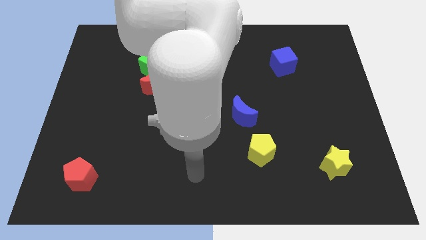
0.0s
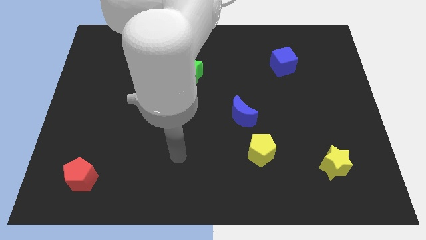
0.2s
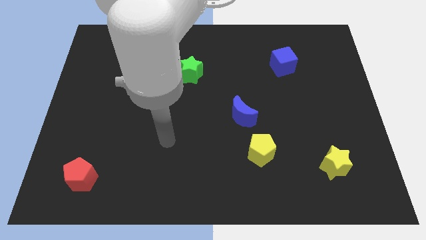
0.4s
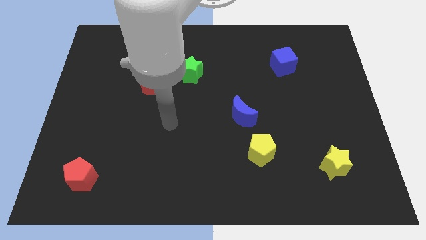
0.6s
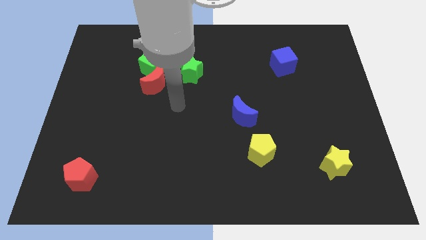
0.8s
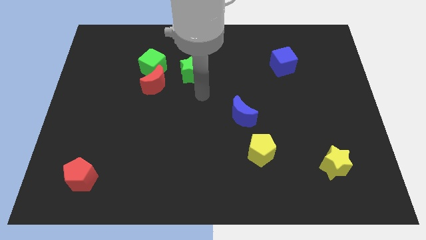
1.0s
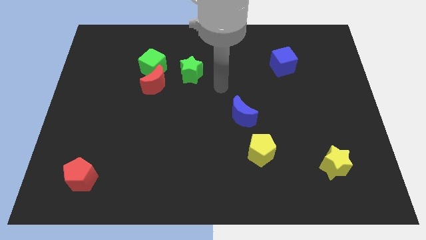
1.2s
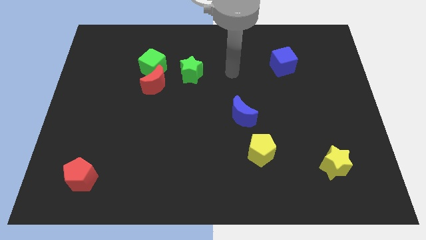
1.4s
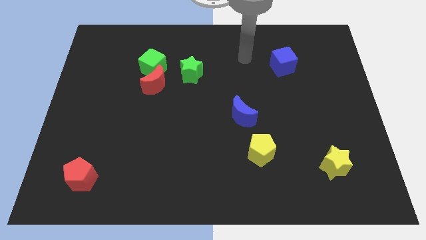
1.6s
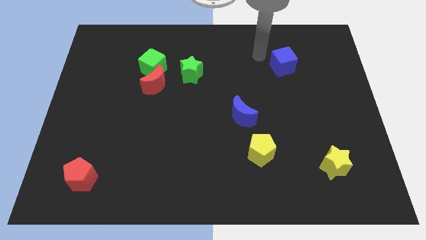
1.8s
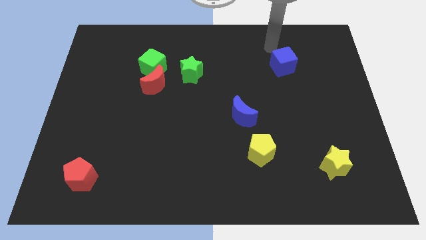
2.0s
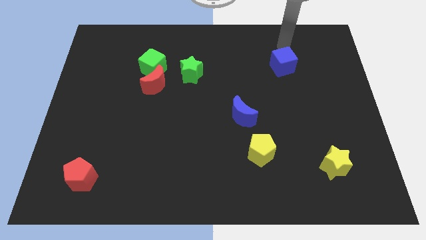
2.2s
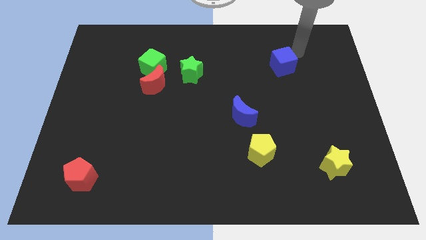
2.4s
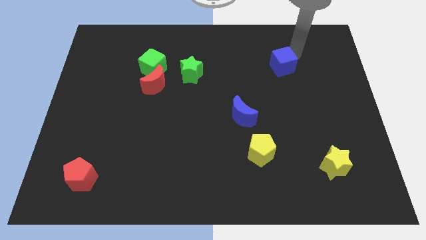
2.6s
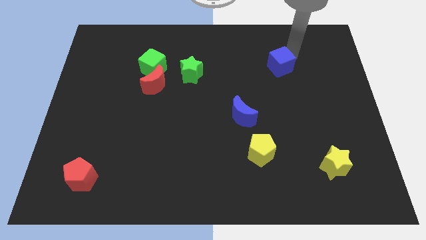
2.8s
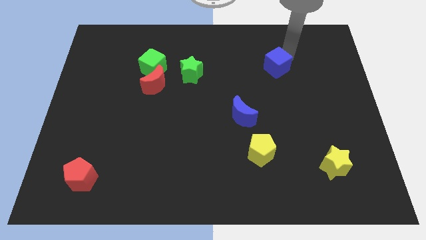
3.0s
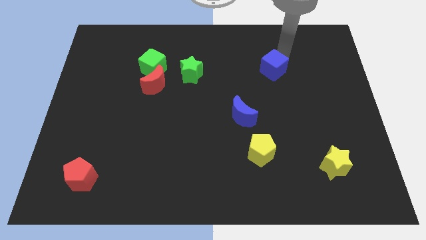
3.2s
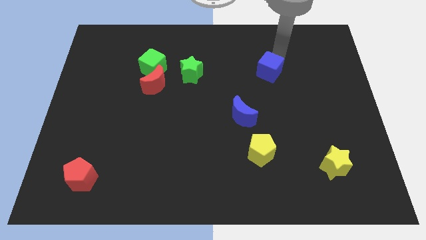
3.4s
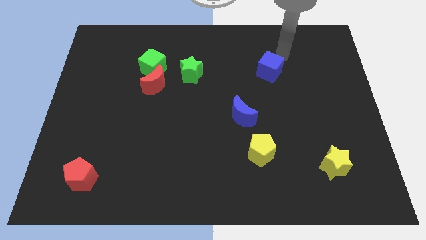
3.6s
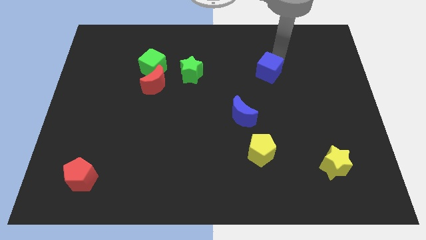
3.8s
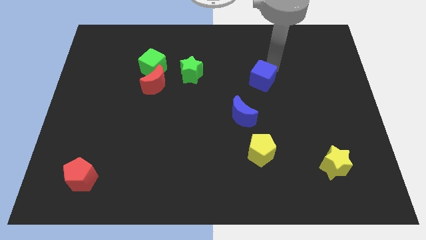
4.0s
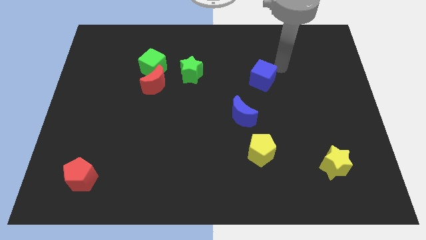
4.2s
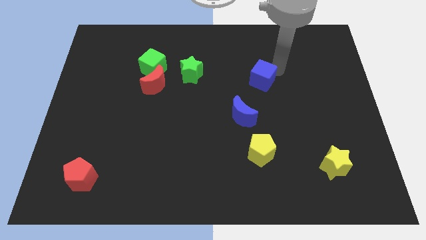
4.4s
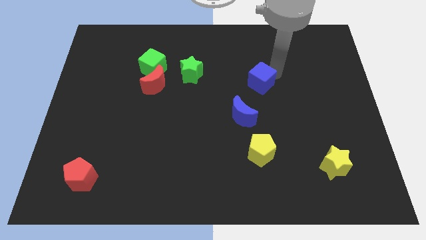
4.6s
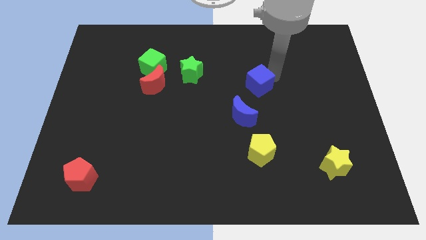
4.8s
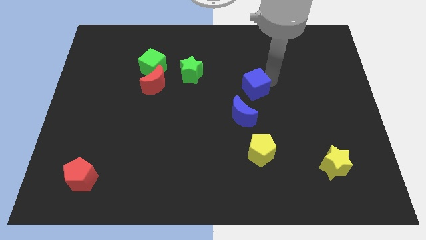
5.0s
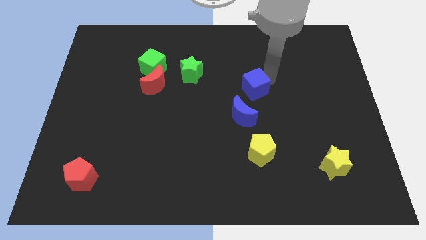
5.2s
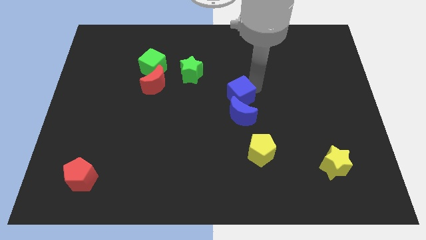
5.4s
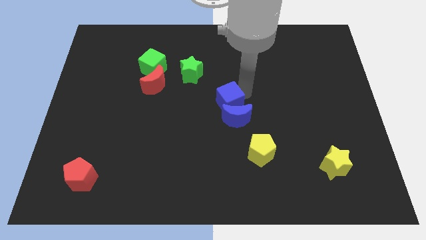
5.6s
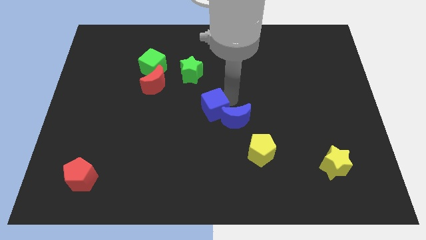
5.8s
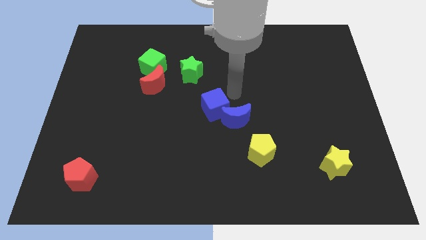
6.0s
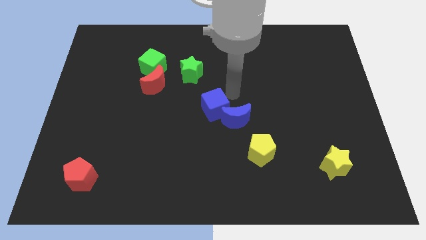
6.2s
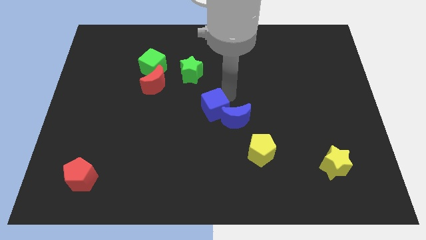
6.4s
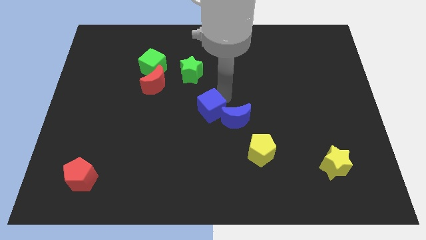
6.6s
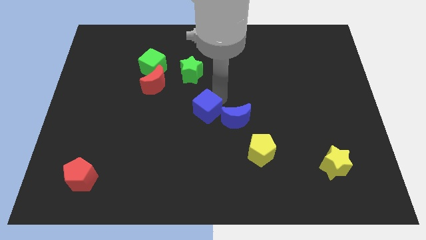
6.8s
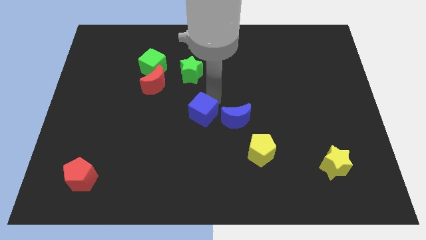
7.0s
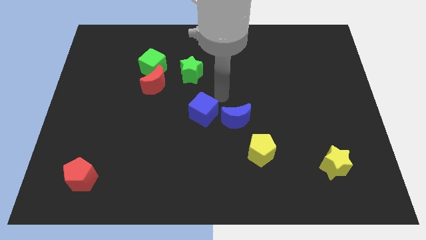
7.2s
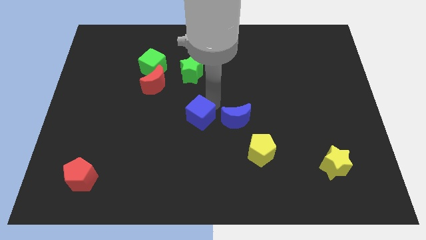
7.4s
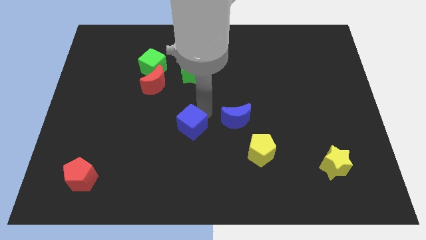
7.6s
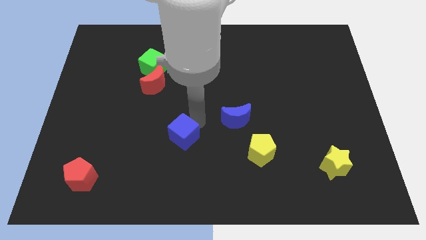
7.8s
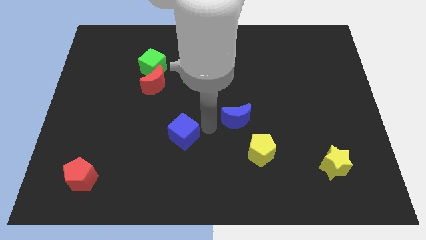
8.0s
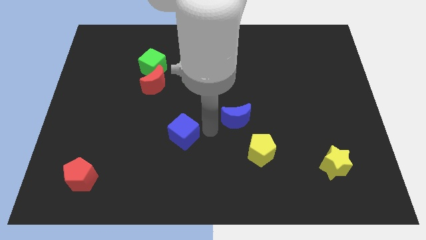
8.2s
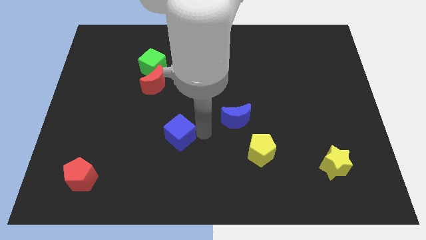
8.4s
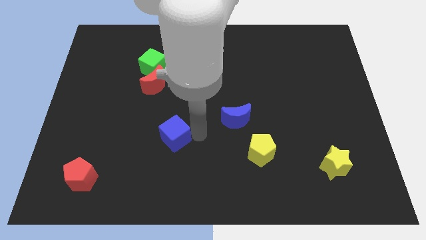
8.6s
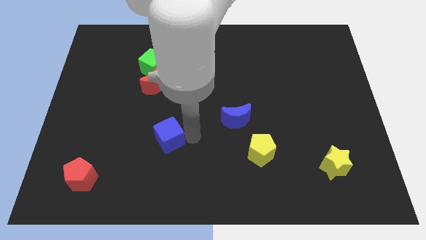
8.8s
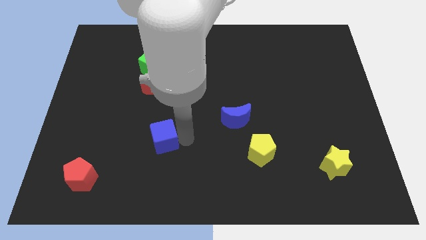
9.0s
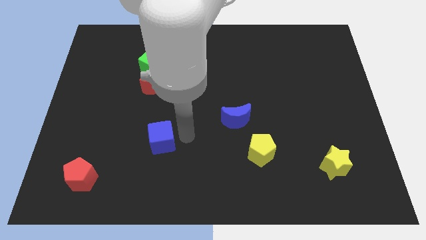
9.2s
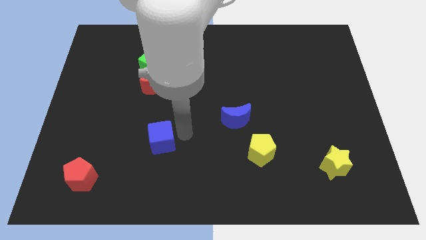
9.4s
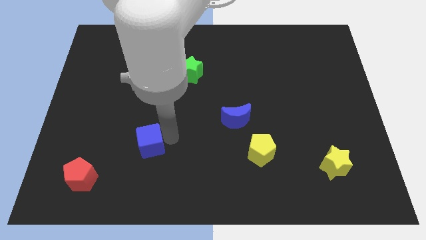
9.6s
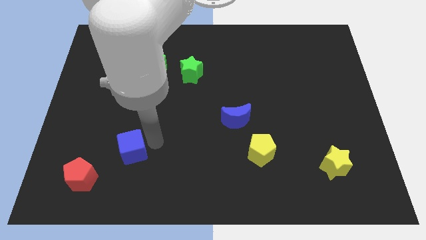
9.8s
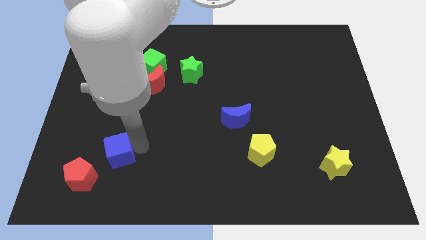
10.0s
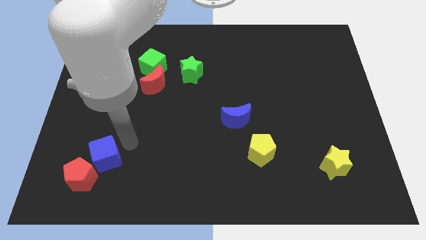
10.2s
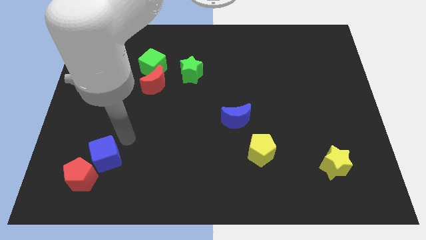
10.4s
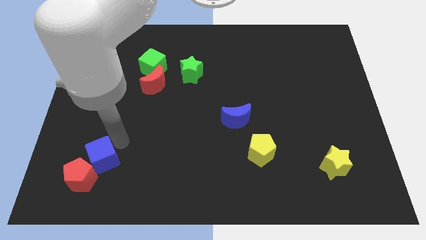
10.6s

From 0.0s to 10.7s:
slide the blue cube to the red pentagon

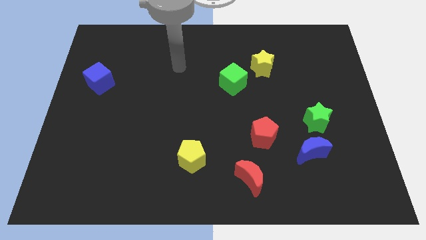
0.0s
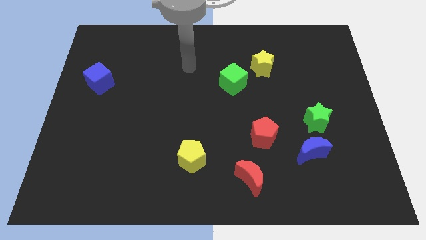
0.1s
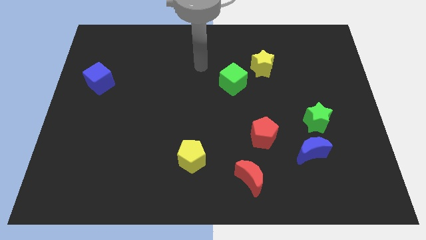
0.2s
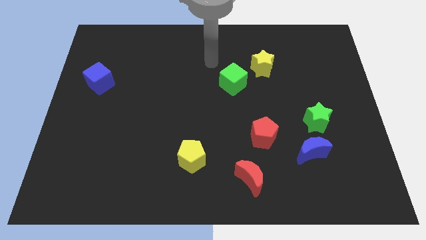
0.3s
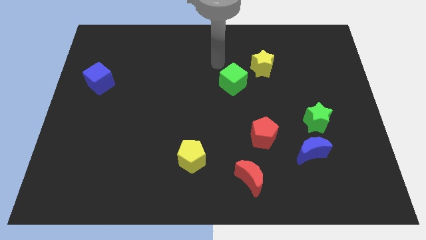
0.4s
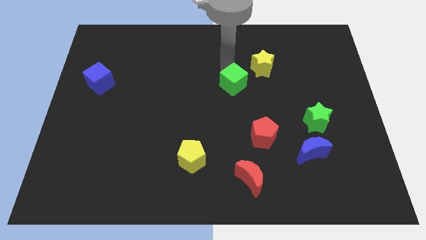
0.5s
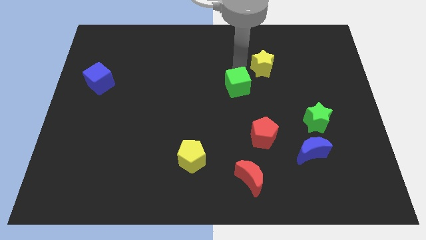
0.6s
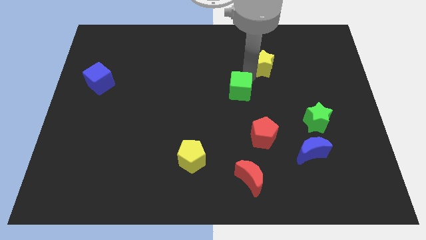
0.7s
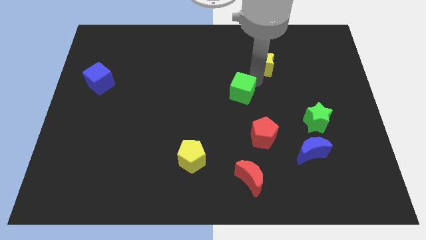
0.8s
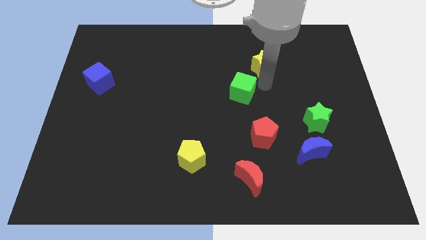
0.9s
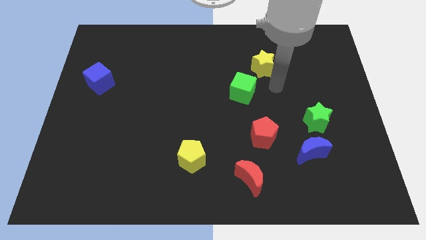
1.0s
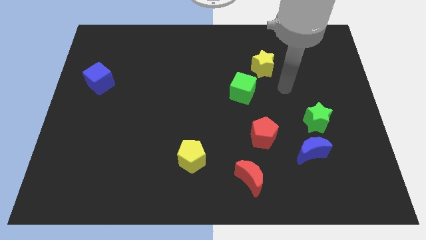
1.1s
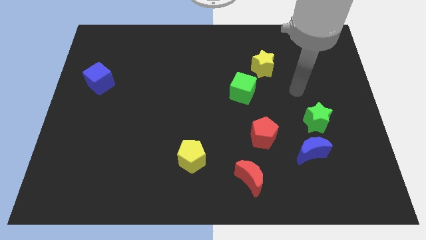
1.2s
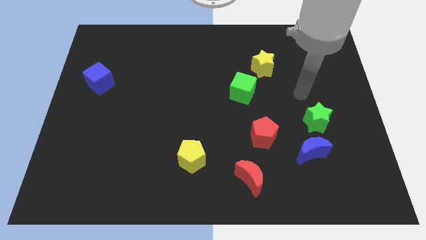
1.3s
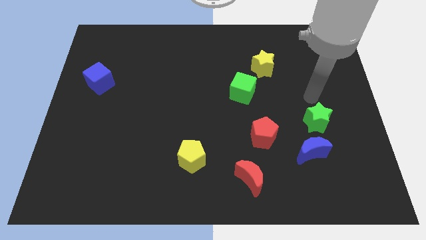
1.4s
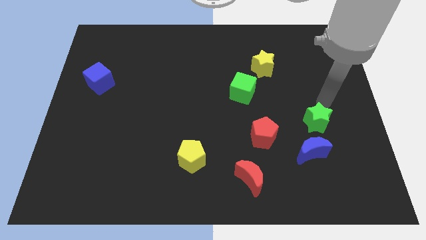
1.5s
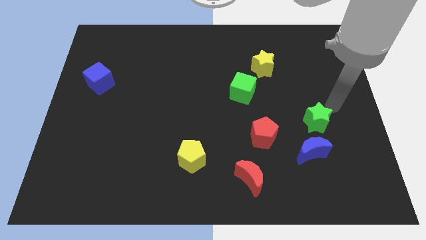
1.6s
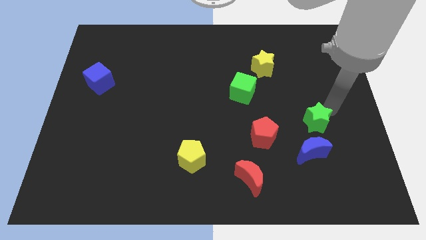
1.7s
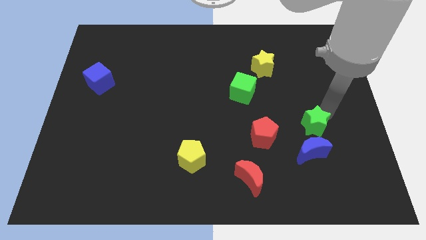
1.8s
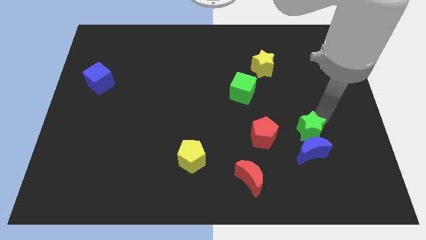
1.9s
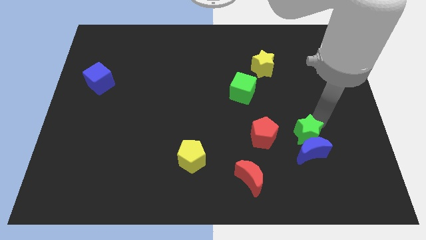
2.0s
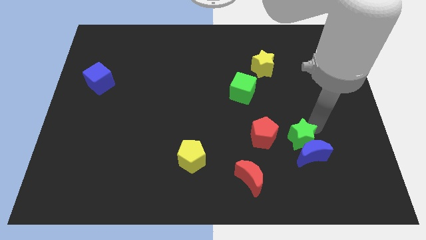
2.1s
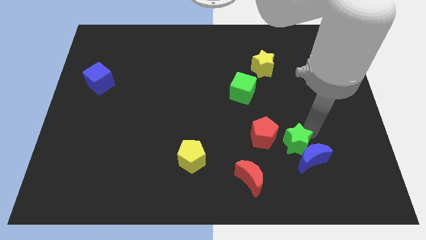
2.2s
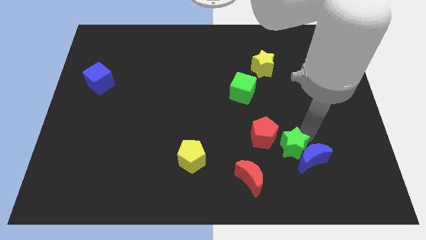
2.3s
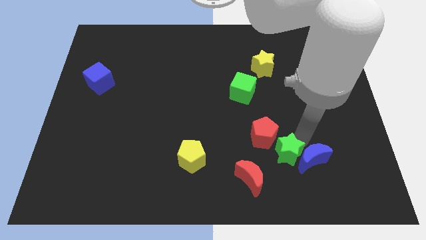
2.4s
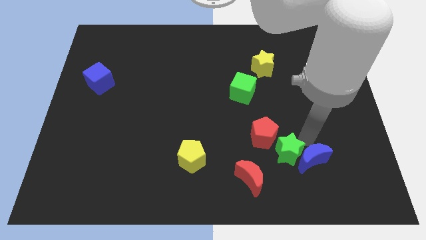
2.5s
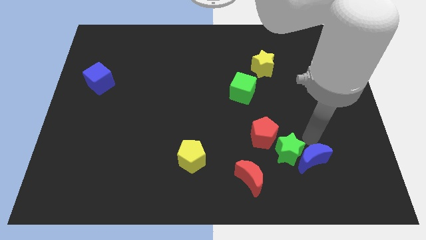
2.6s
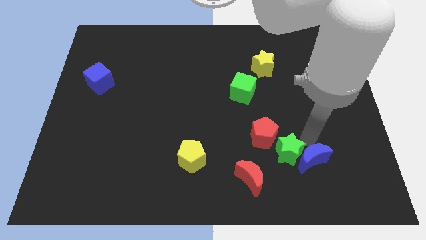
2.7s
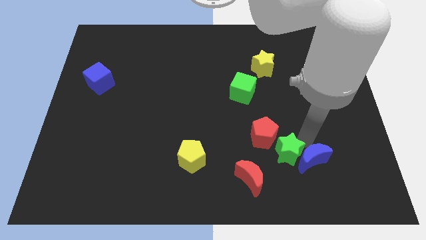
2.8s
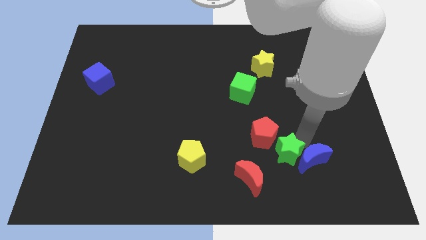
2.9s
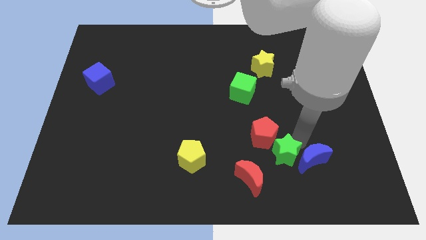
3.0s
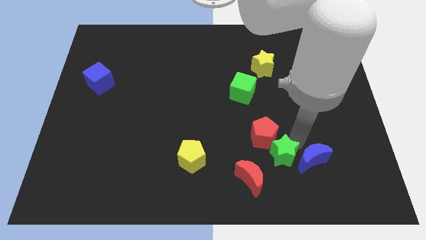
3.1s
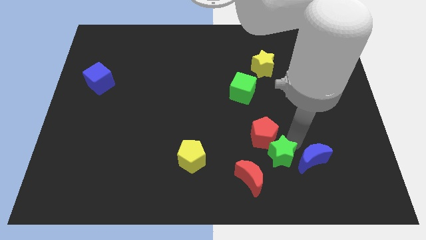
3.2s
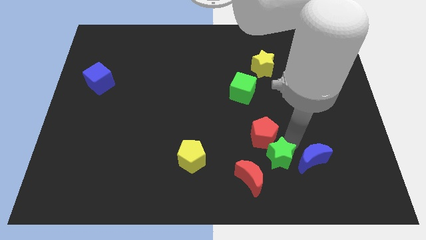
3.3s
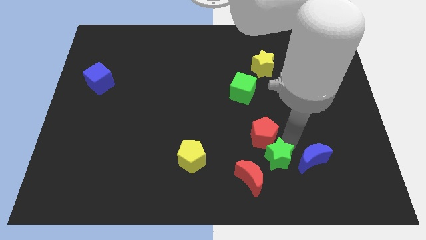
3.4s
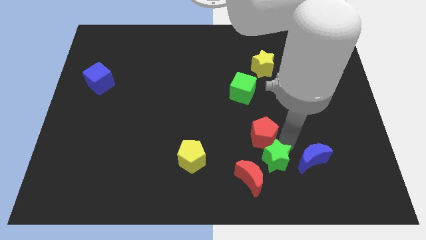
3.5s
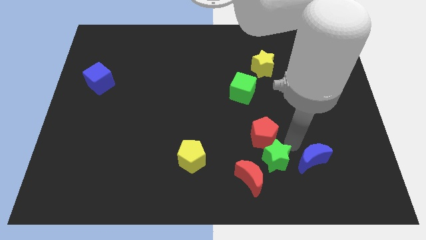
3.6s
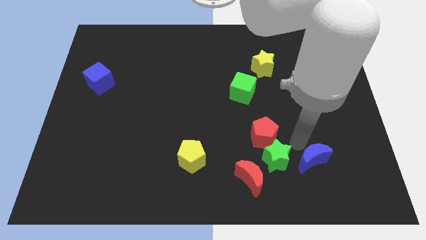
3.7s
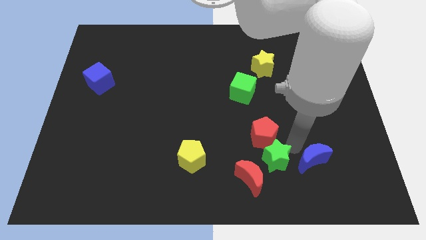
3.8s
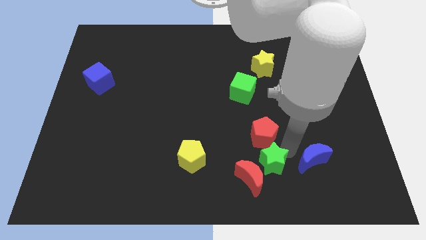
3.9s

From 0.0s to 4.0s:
put the green star towards the red moon
